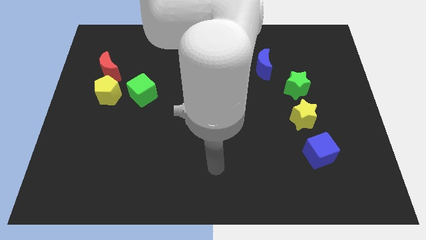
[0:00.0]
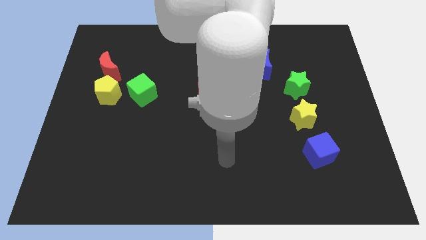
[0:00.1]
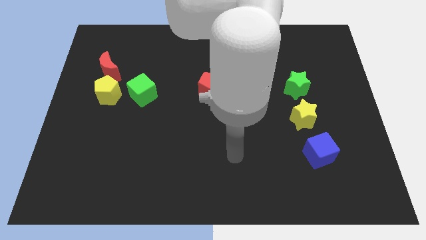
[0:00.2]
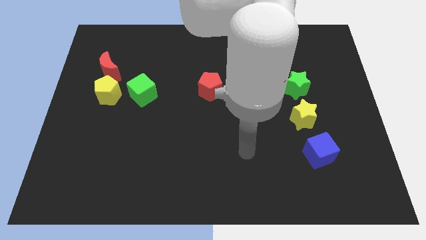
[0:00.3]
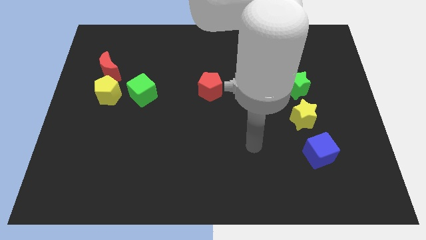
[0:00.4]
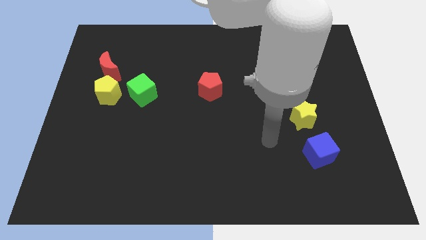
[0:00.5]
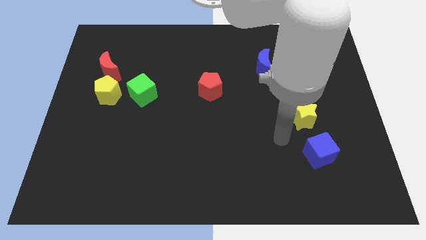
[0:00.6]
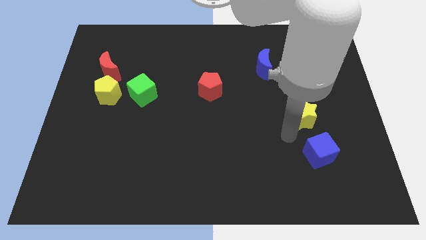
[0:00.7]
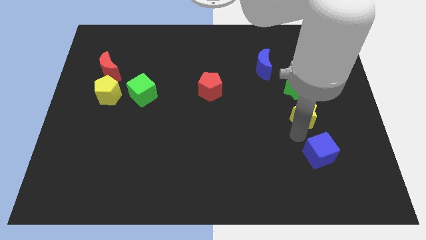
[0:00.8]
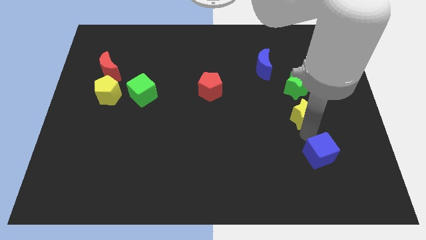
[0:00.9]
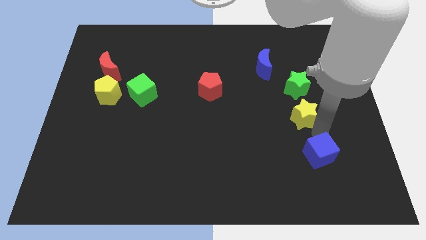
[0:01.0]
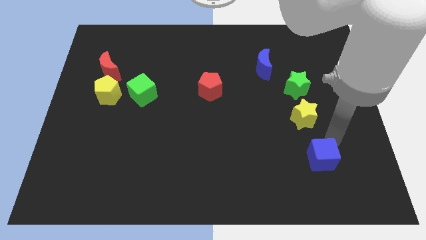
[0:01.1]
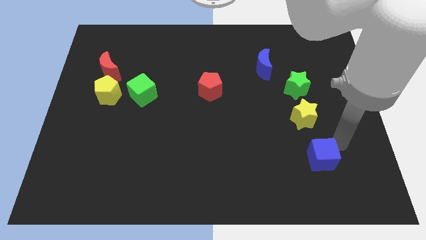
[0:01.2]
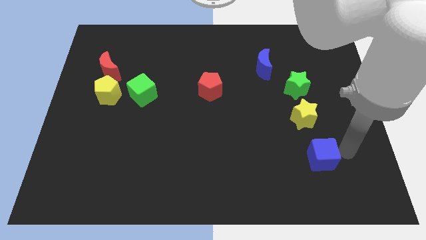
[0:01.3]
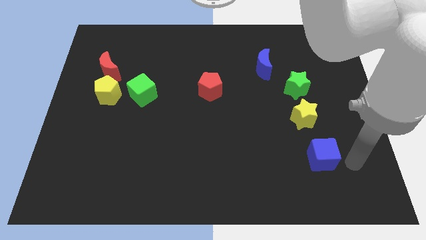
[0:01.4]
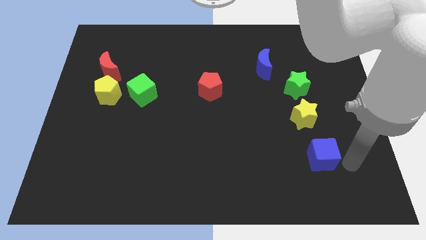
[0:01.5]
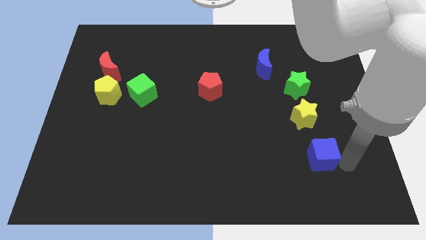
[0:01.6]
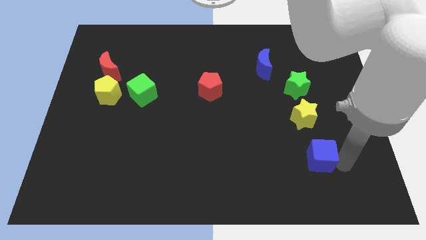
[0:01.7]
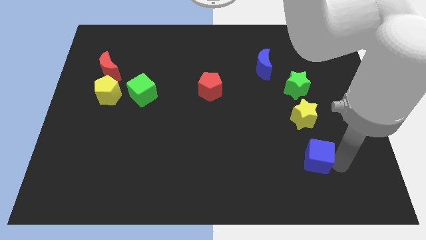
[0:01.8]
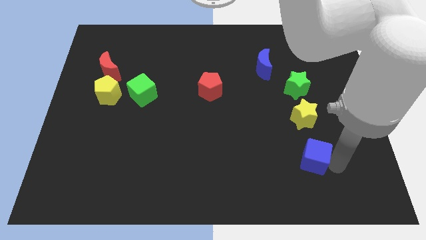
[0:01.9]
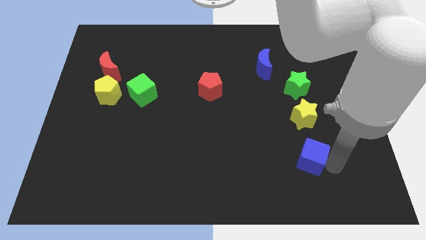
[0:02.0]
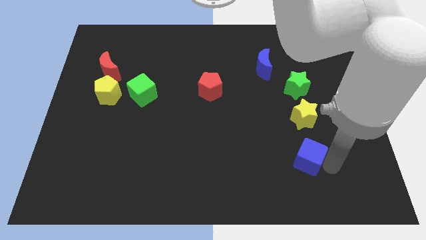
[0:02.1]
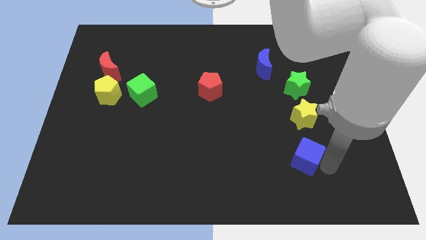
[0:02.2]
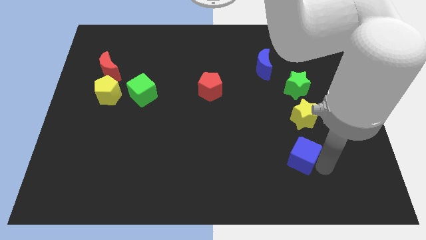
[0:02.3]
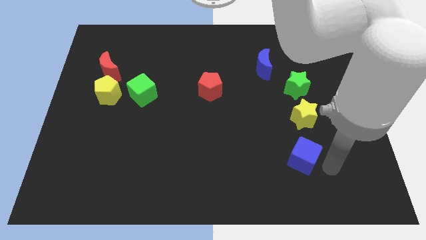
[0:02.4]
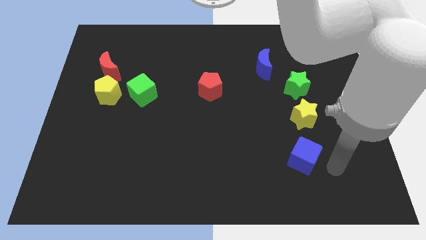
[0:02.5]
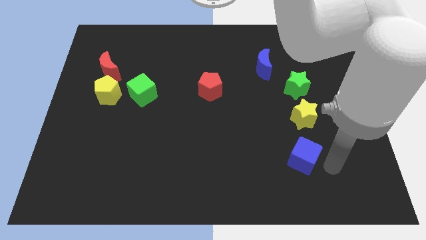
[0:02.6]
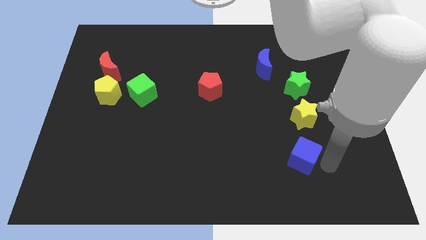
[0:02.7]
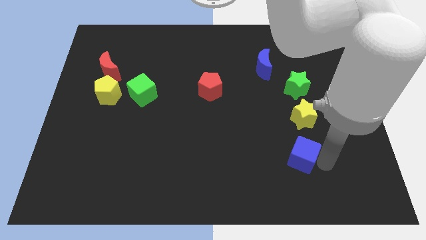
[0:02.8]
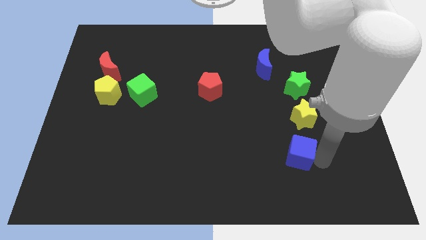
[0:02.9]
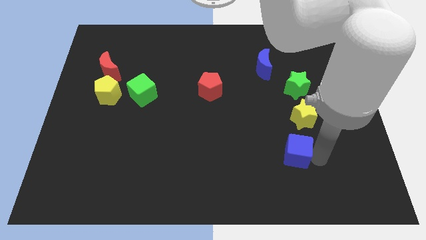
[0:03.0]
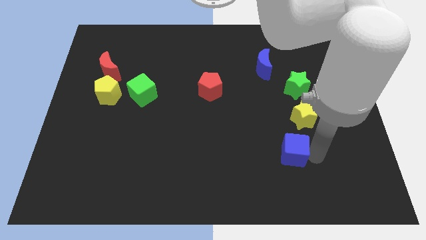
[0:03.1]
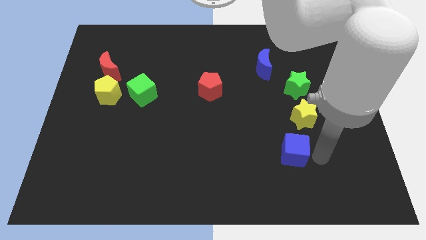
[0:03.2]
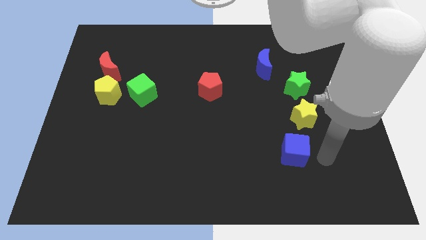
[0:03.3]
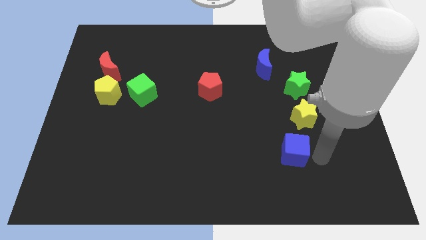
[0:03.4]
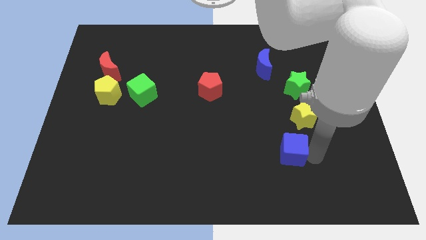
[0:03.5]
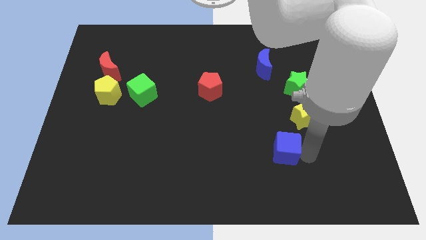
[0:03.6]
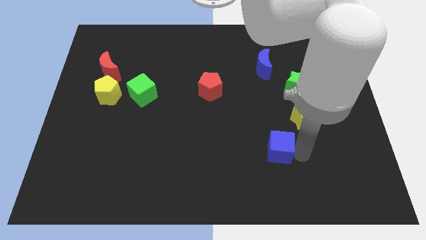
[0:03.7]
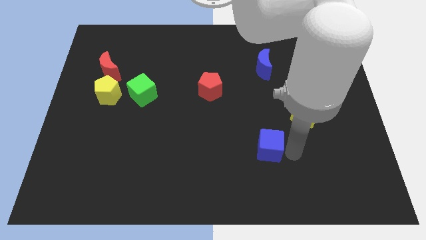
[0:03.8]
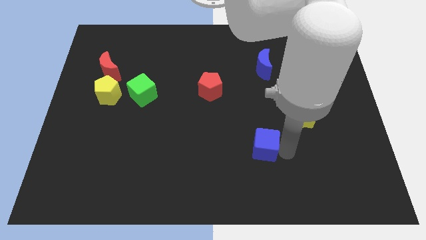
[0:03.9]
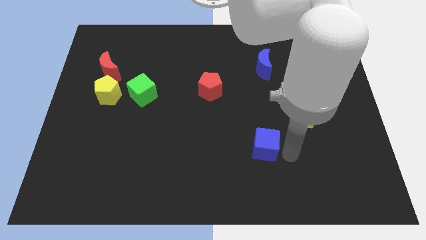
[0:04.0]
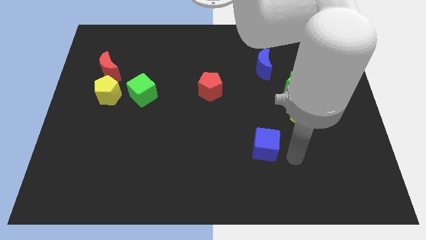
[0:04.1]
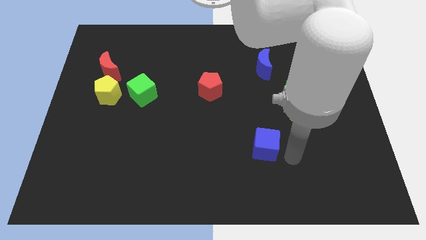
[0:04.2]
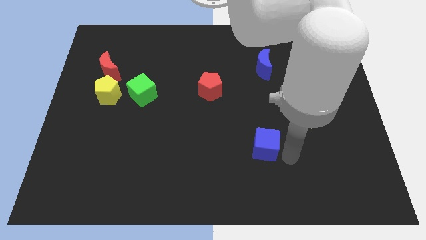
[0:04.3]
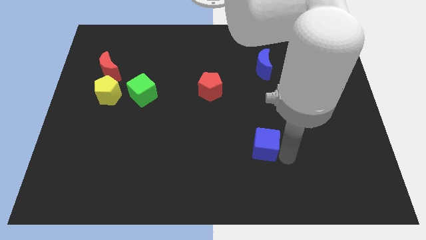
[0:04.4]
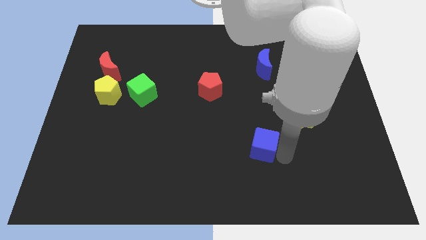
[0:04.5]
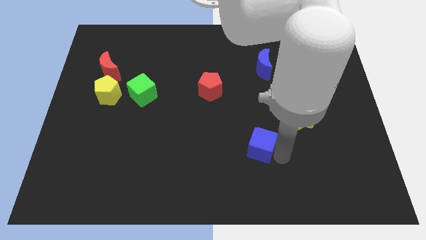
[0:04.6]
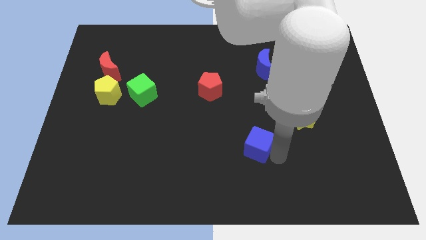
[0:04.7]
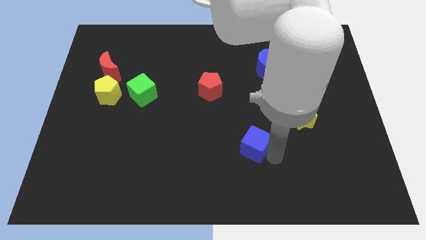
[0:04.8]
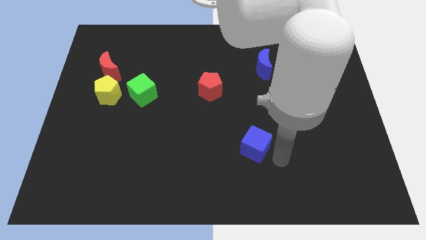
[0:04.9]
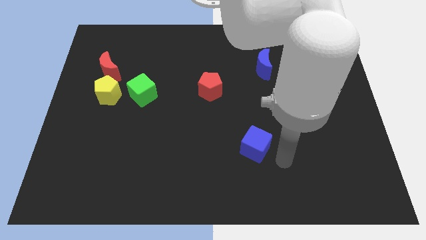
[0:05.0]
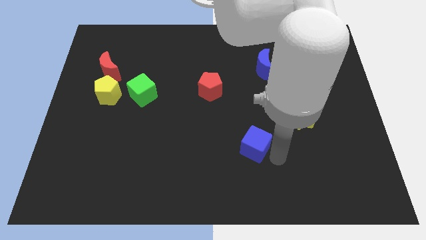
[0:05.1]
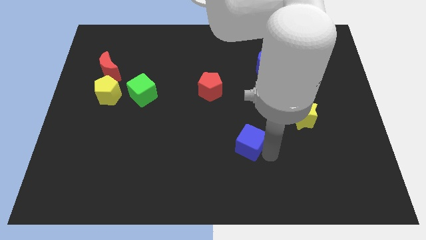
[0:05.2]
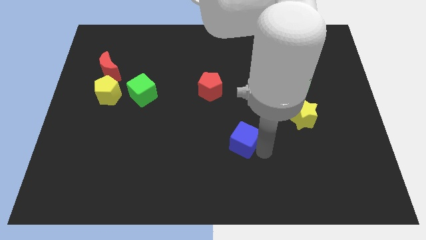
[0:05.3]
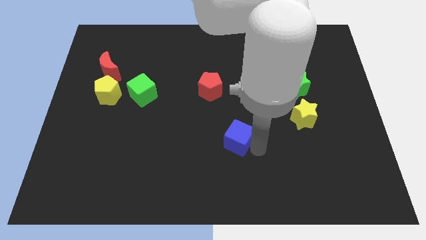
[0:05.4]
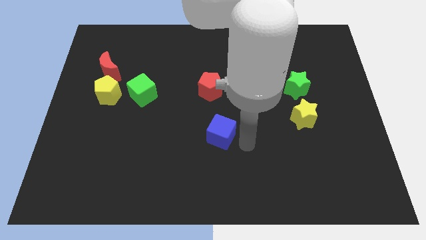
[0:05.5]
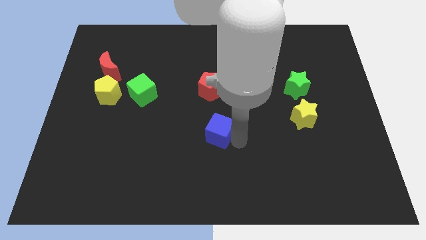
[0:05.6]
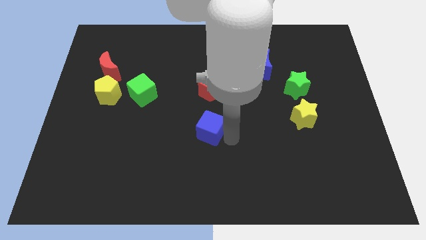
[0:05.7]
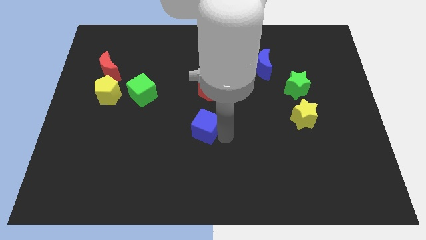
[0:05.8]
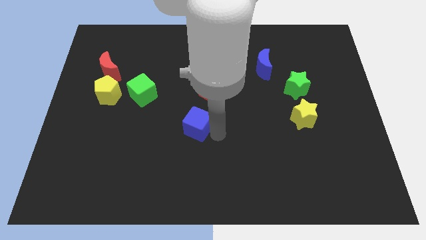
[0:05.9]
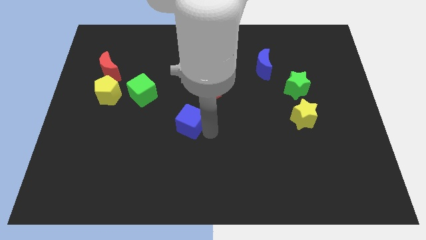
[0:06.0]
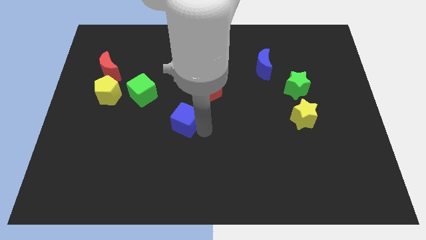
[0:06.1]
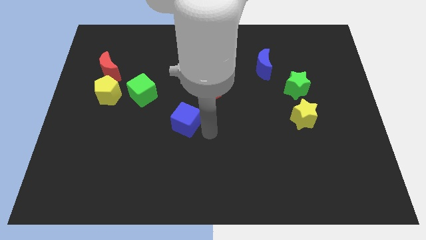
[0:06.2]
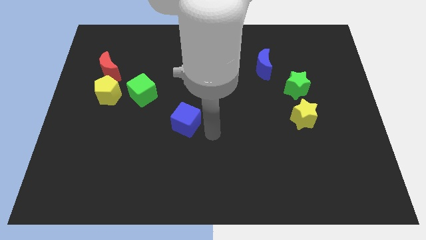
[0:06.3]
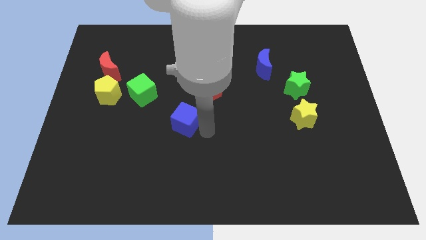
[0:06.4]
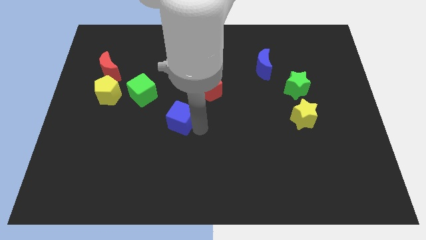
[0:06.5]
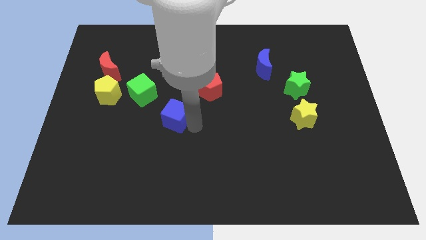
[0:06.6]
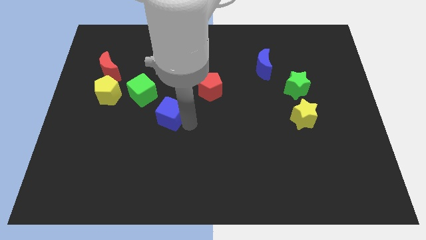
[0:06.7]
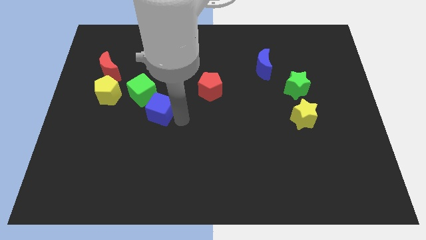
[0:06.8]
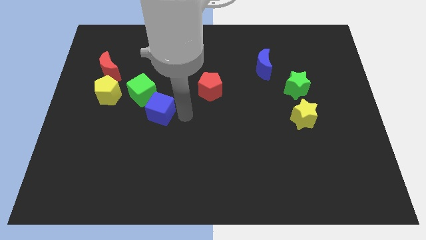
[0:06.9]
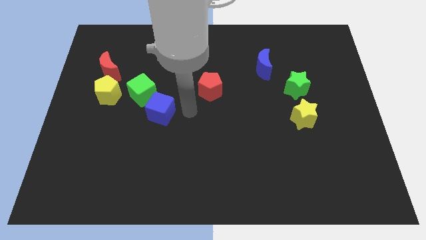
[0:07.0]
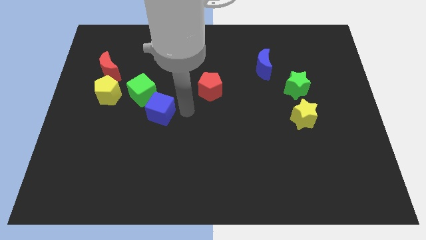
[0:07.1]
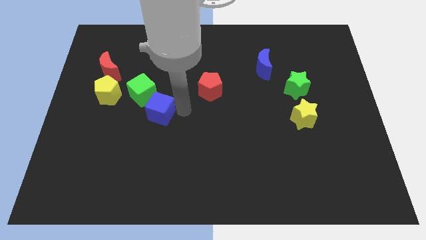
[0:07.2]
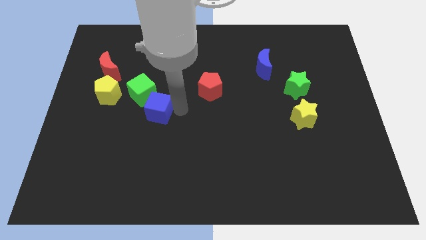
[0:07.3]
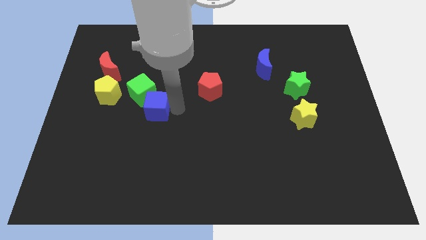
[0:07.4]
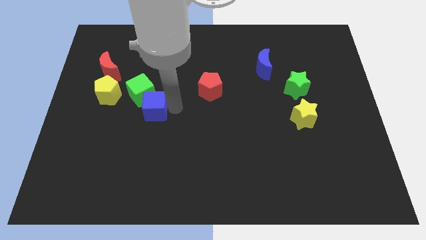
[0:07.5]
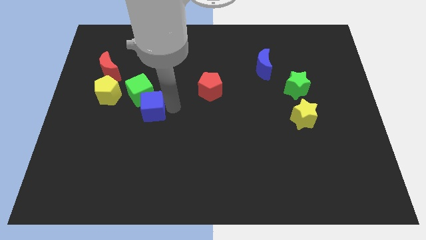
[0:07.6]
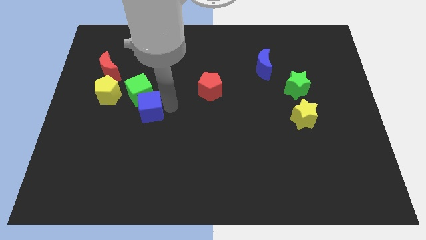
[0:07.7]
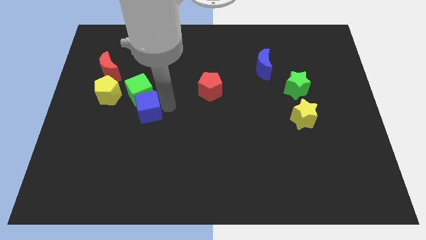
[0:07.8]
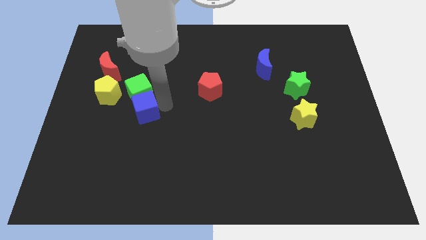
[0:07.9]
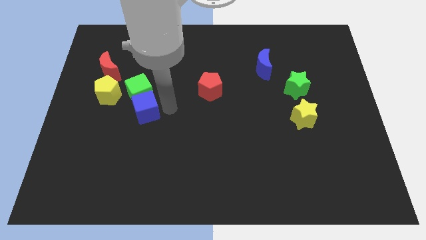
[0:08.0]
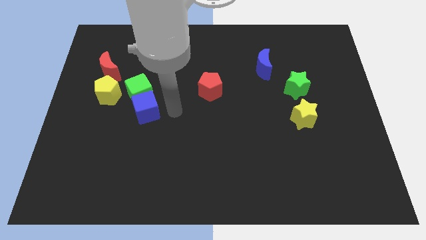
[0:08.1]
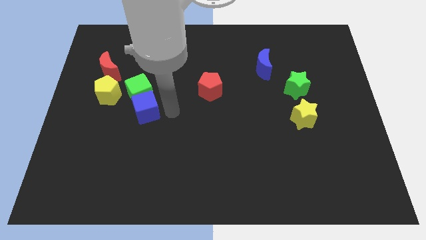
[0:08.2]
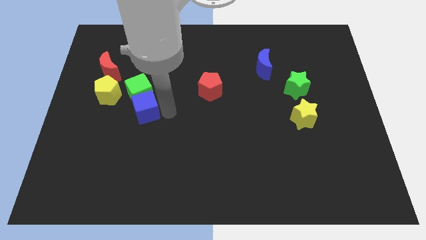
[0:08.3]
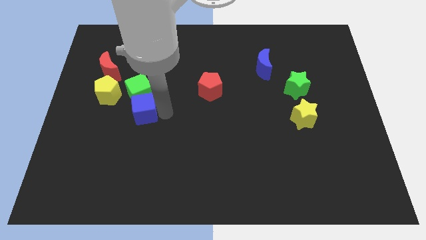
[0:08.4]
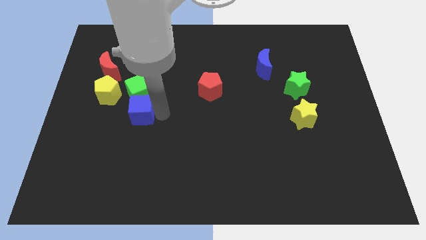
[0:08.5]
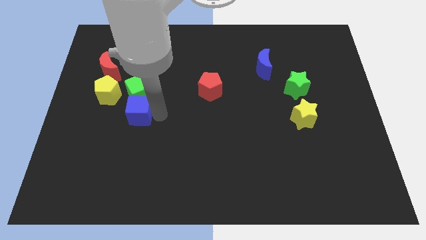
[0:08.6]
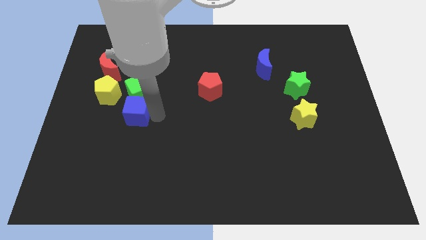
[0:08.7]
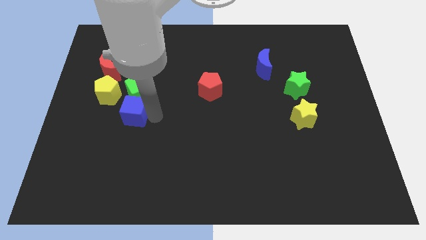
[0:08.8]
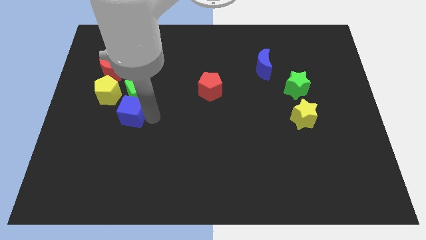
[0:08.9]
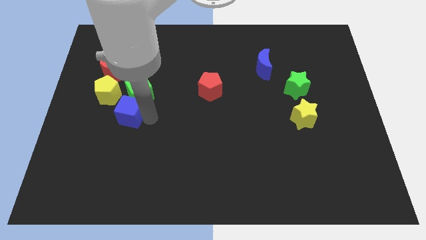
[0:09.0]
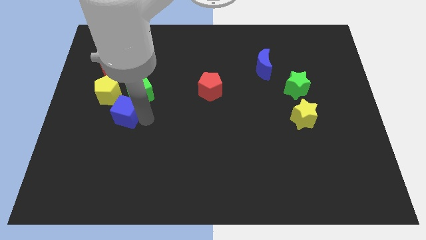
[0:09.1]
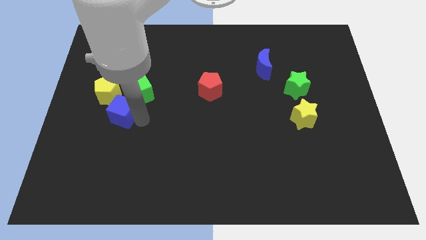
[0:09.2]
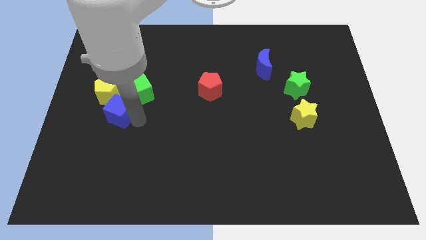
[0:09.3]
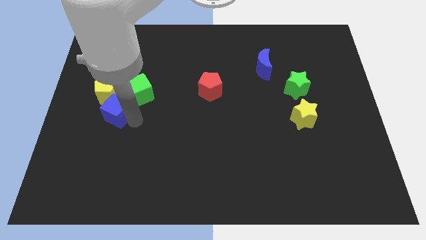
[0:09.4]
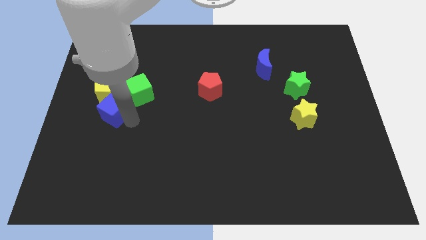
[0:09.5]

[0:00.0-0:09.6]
move the blue cube close to the yellow pentagon
